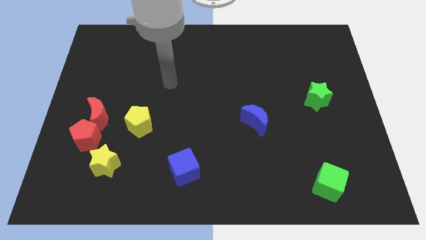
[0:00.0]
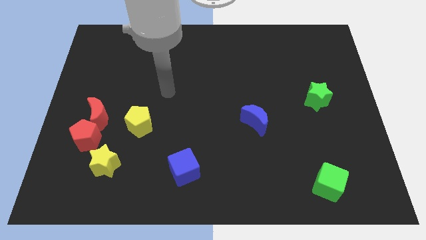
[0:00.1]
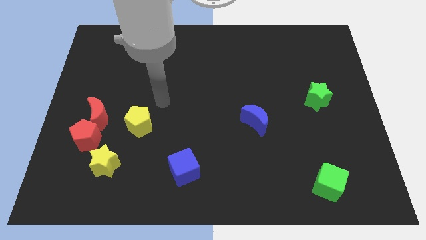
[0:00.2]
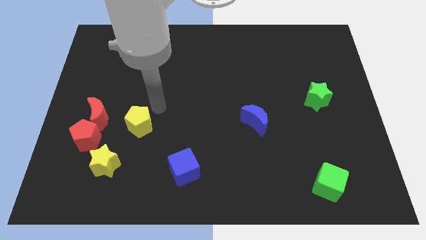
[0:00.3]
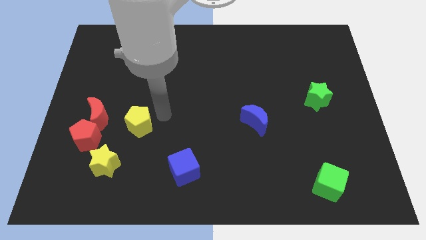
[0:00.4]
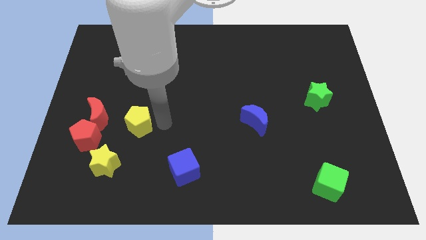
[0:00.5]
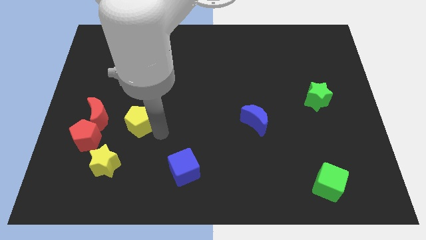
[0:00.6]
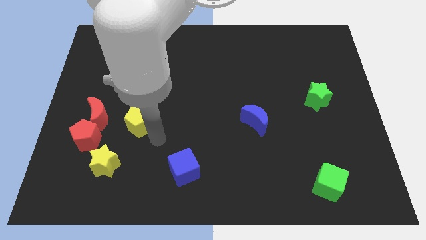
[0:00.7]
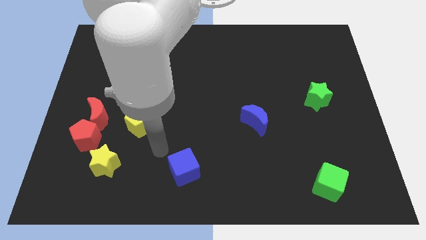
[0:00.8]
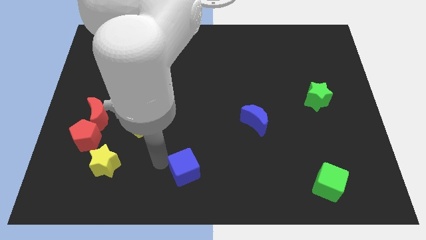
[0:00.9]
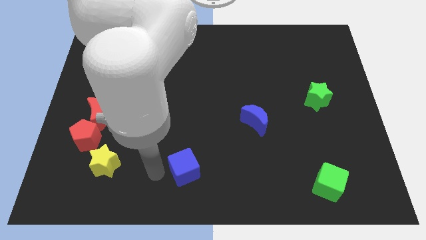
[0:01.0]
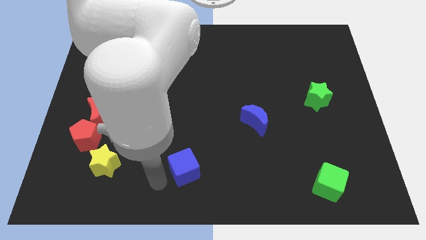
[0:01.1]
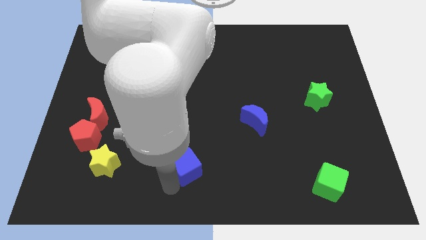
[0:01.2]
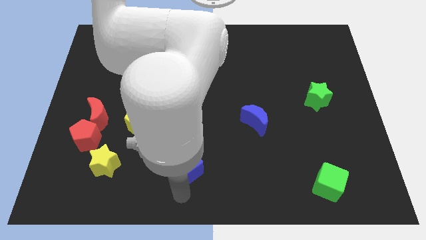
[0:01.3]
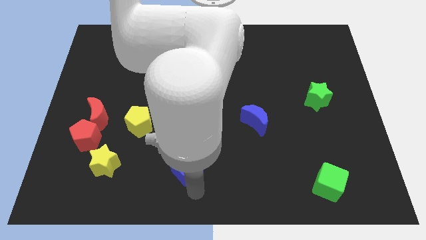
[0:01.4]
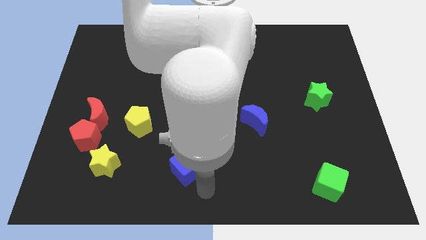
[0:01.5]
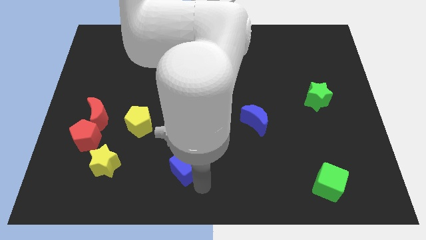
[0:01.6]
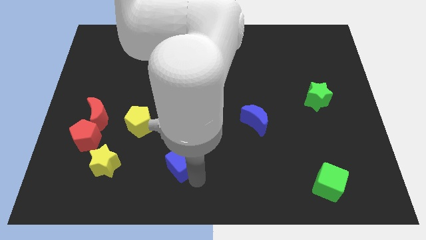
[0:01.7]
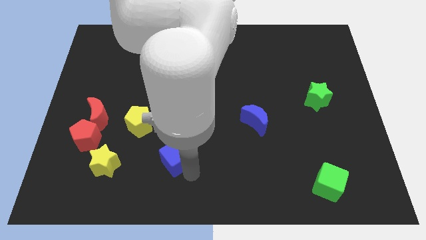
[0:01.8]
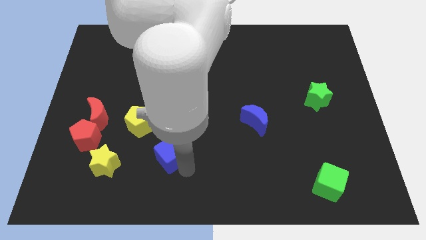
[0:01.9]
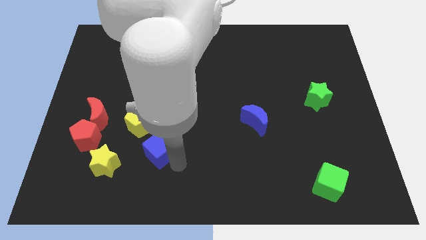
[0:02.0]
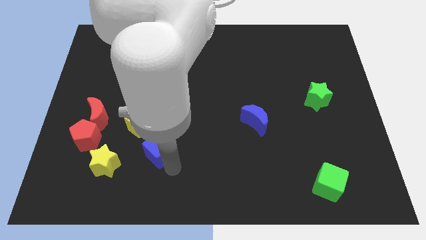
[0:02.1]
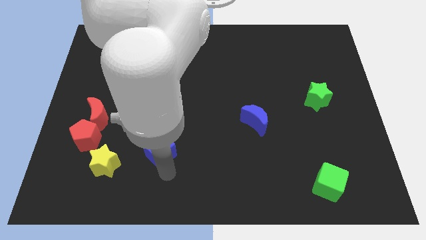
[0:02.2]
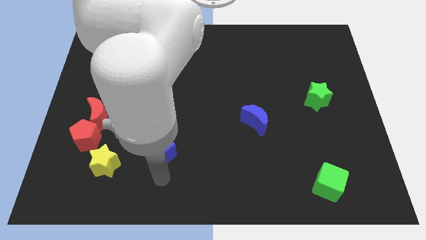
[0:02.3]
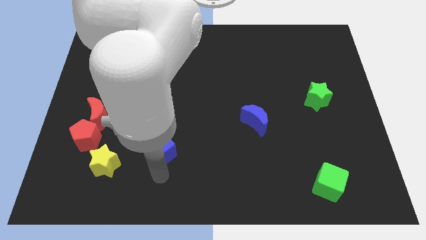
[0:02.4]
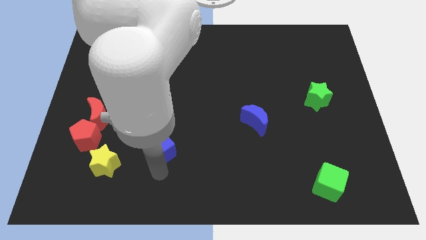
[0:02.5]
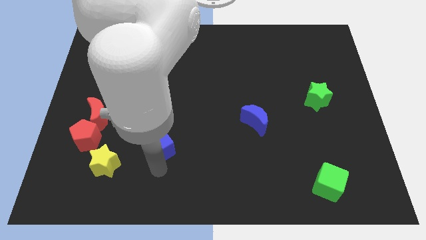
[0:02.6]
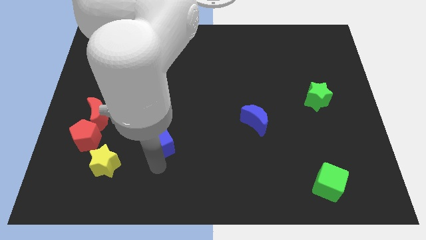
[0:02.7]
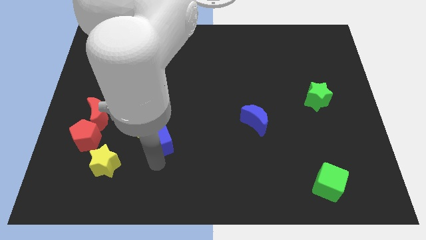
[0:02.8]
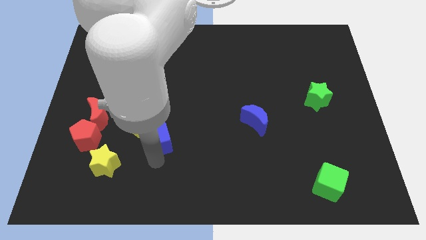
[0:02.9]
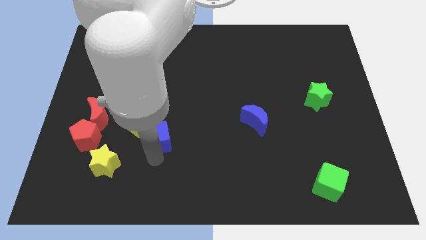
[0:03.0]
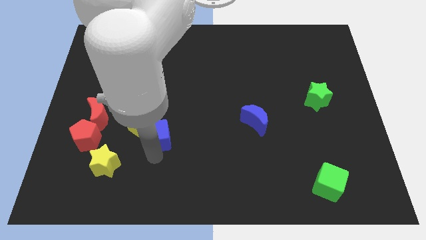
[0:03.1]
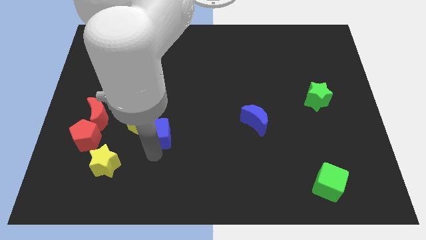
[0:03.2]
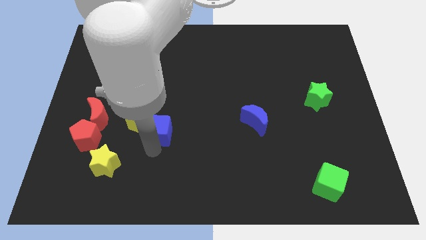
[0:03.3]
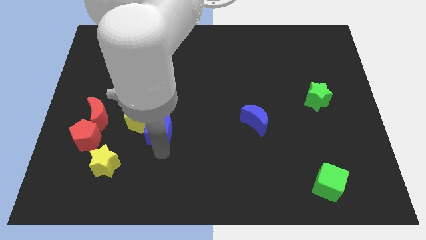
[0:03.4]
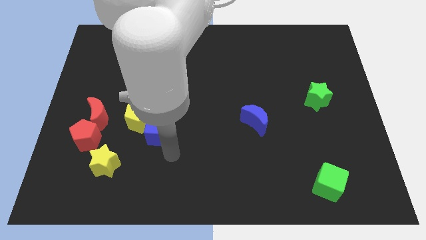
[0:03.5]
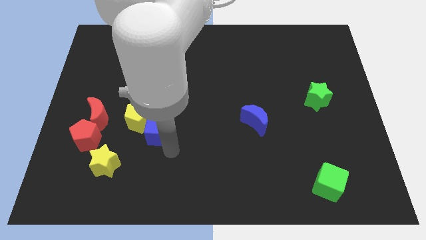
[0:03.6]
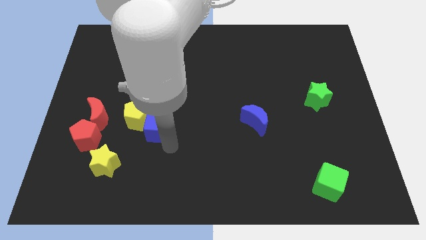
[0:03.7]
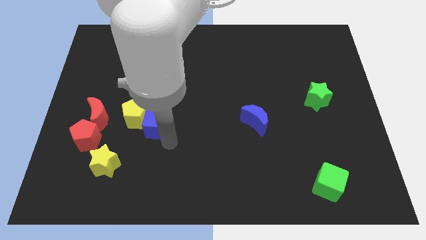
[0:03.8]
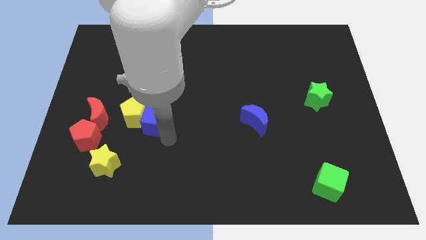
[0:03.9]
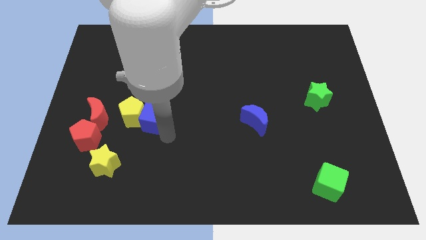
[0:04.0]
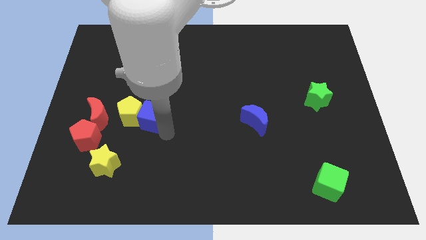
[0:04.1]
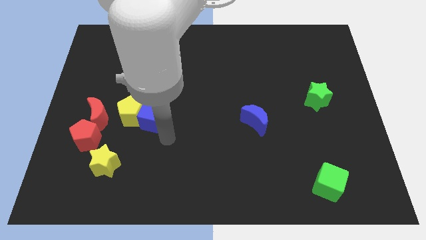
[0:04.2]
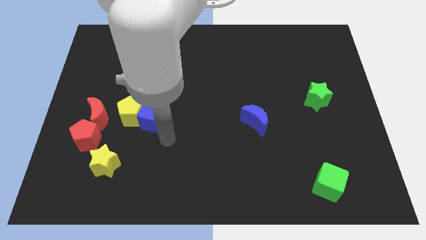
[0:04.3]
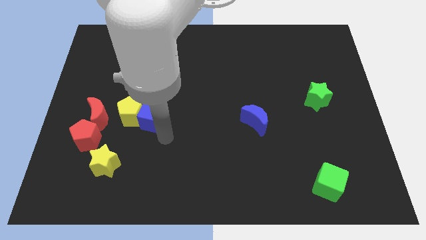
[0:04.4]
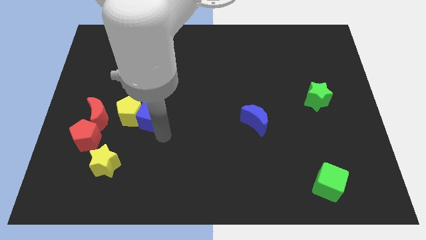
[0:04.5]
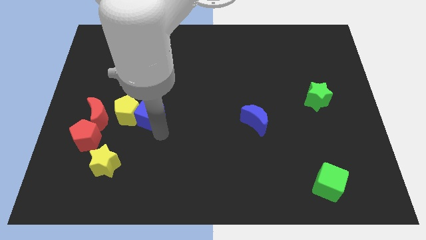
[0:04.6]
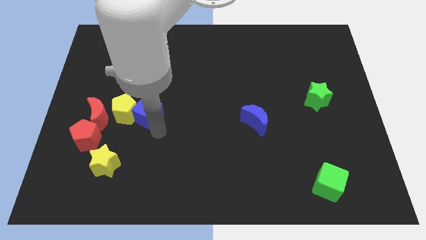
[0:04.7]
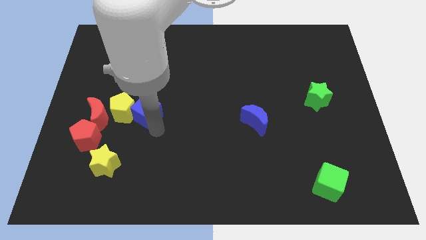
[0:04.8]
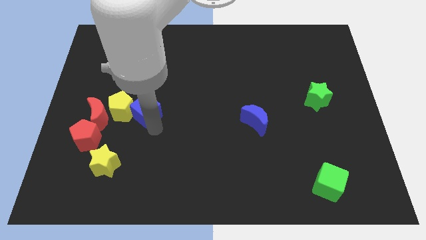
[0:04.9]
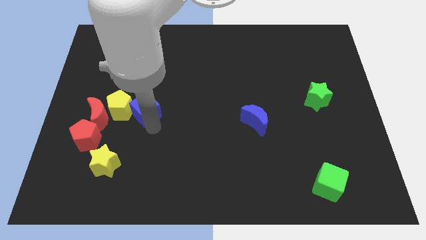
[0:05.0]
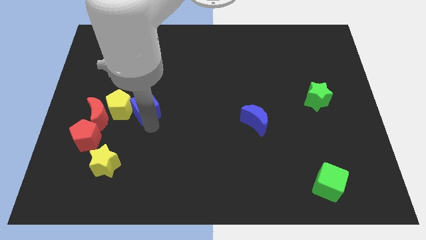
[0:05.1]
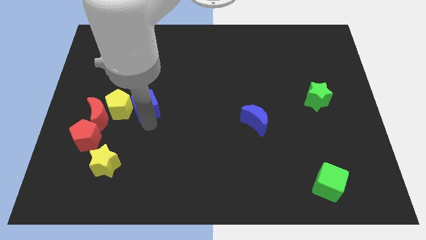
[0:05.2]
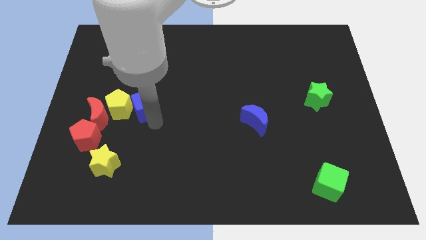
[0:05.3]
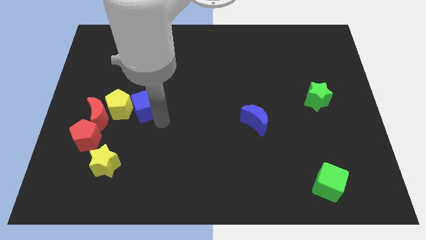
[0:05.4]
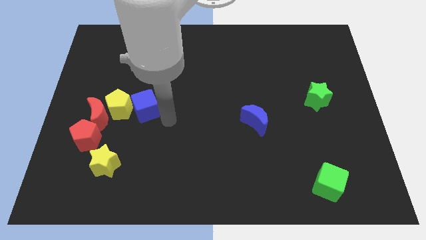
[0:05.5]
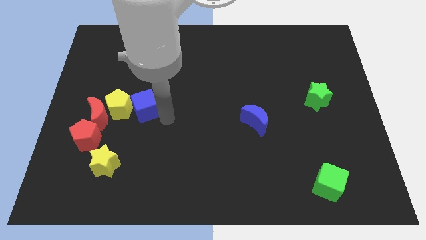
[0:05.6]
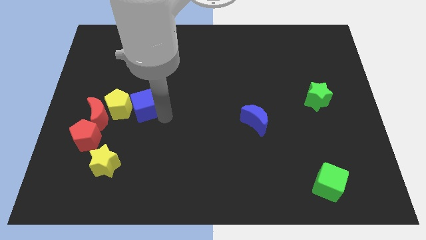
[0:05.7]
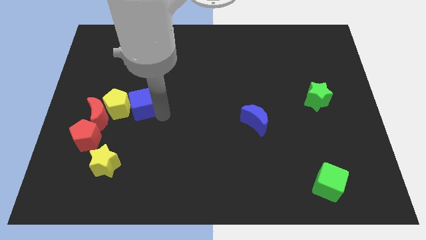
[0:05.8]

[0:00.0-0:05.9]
move the blue cube to the top right of the red moon

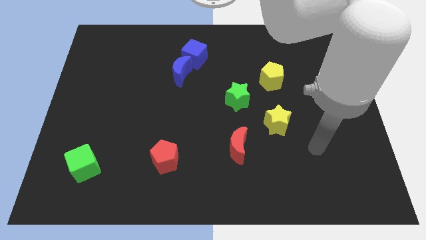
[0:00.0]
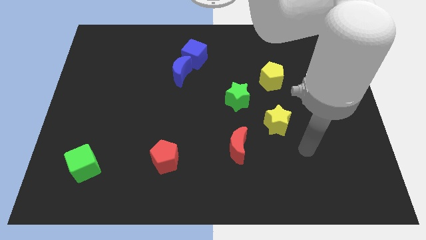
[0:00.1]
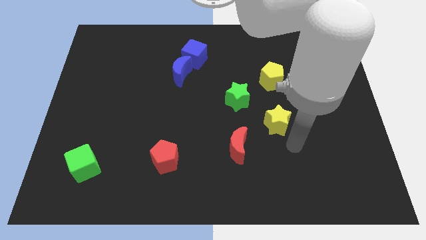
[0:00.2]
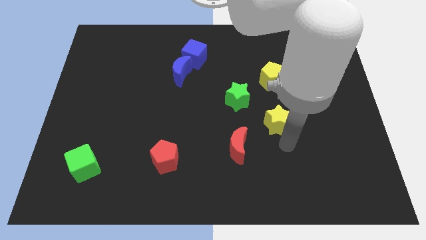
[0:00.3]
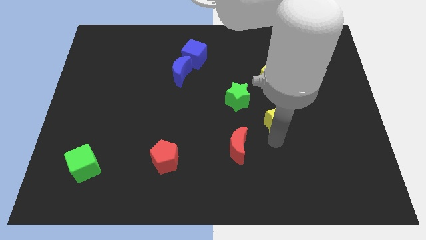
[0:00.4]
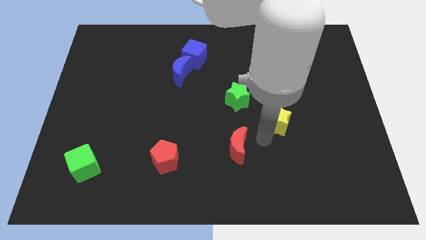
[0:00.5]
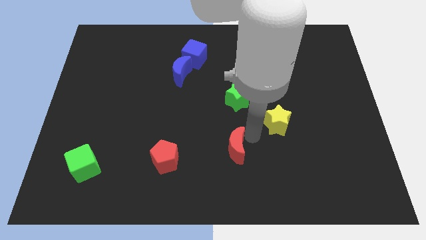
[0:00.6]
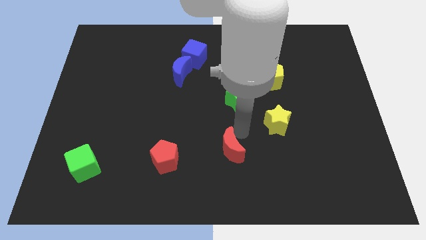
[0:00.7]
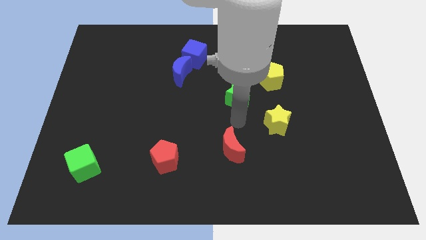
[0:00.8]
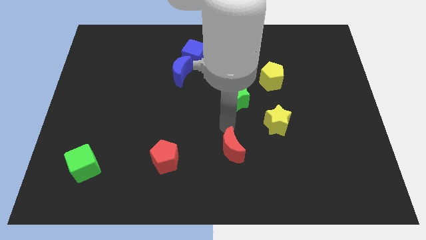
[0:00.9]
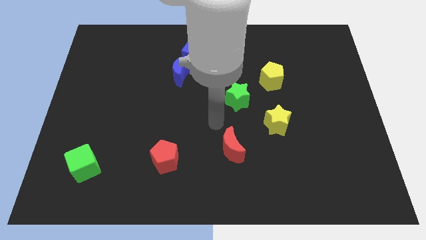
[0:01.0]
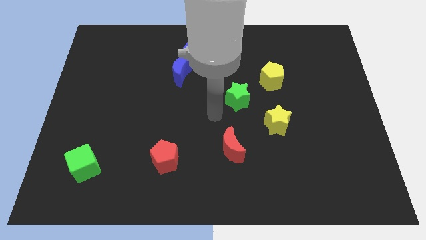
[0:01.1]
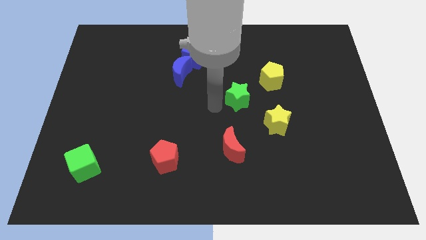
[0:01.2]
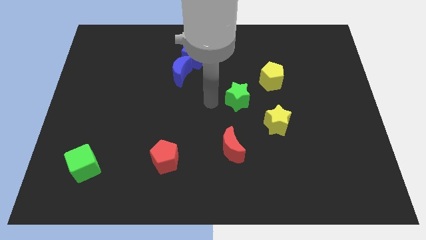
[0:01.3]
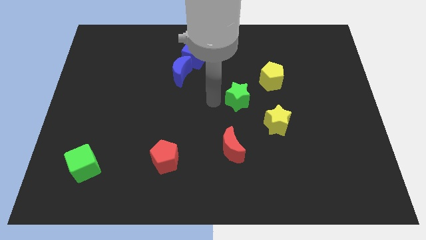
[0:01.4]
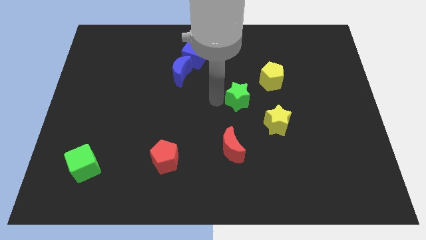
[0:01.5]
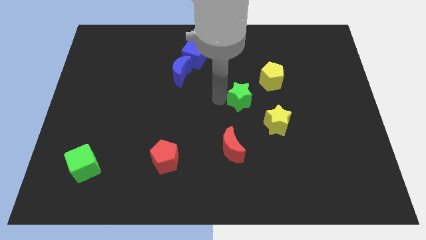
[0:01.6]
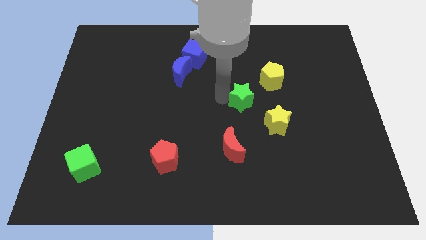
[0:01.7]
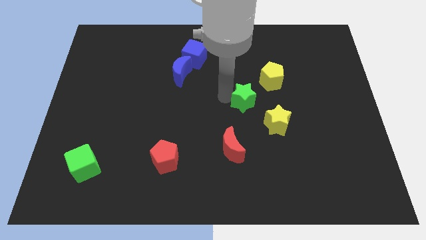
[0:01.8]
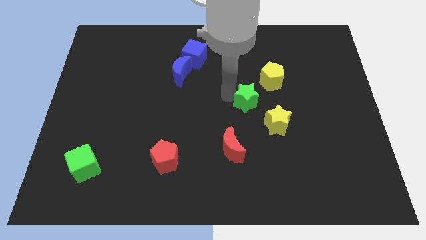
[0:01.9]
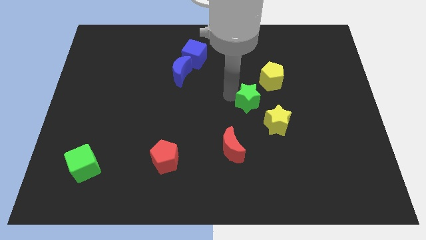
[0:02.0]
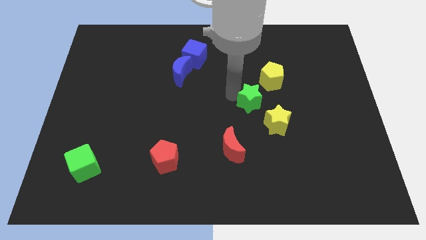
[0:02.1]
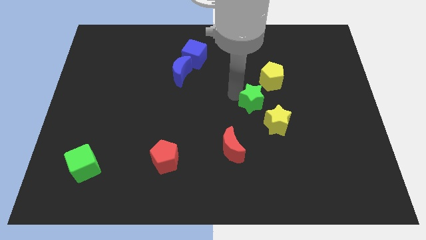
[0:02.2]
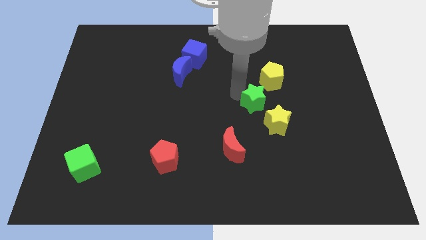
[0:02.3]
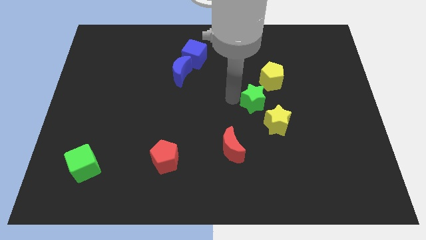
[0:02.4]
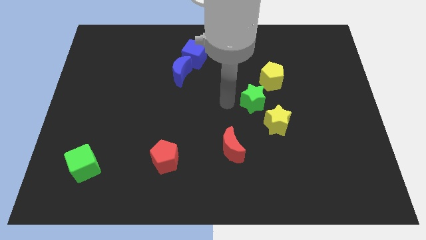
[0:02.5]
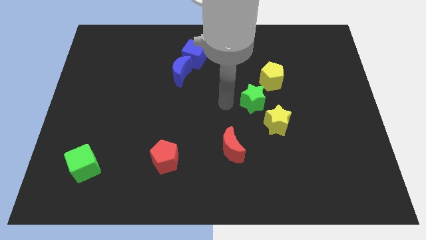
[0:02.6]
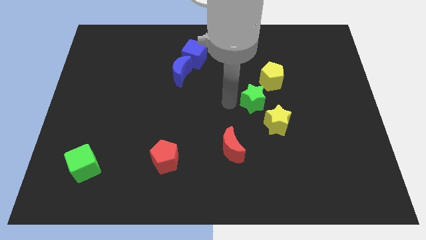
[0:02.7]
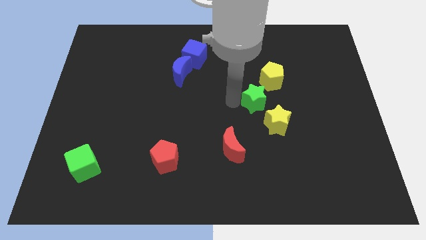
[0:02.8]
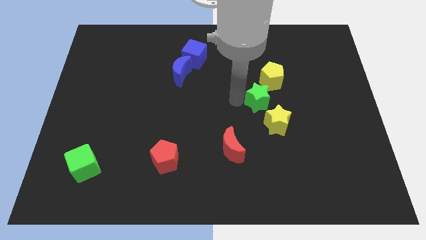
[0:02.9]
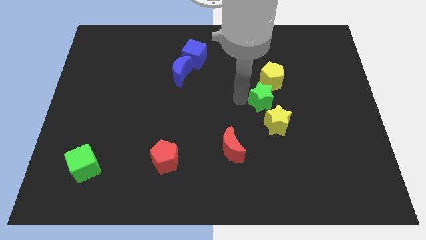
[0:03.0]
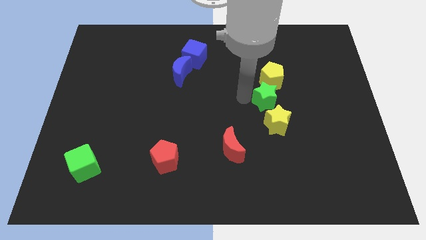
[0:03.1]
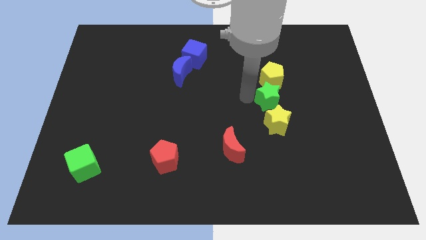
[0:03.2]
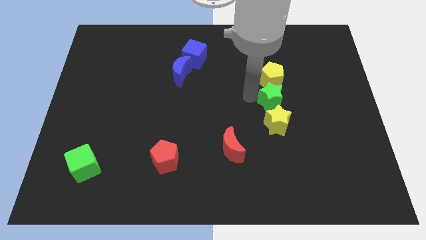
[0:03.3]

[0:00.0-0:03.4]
move the green star to the bottom right side of the yellow pentagon
